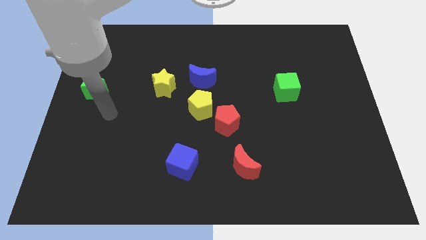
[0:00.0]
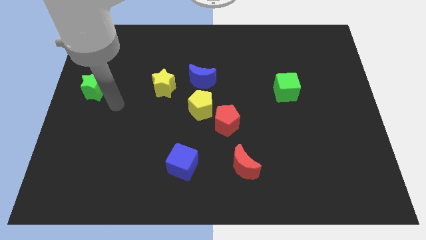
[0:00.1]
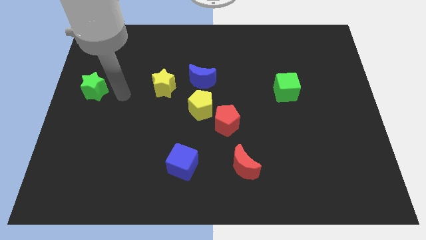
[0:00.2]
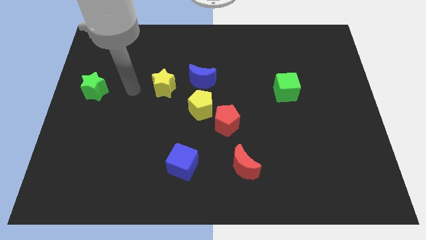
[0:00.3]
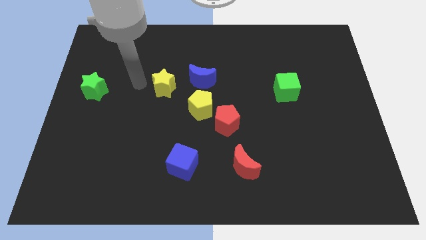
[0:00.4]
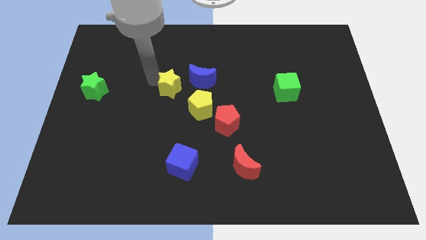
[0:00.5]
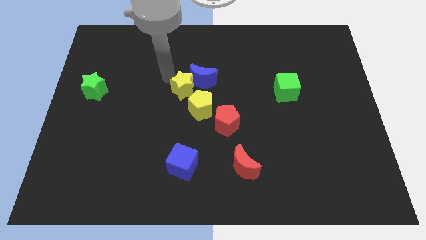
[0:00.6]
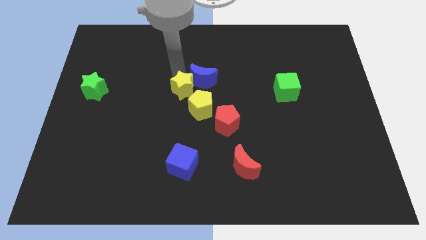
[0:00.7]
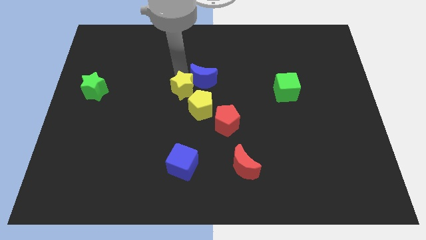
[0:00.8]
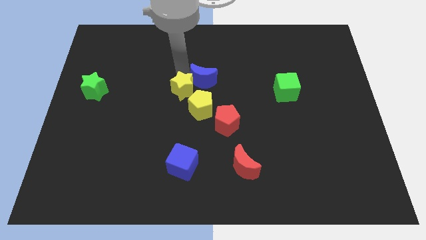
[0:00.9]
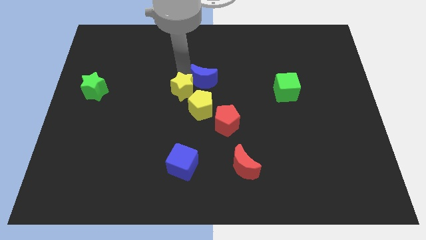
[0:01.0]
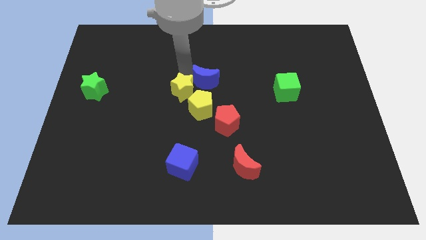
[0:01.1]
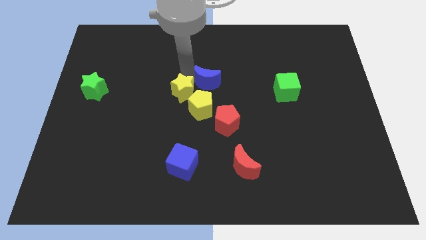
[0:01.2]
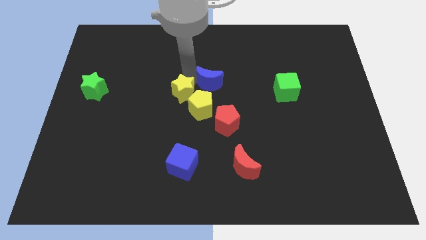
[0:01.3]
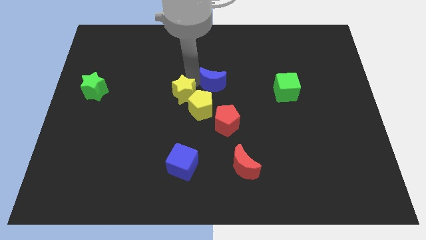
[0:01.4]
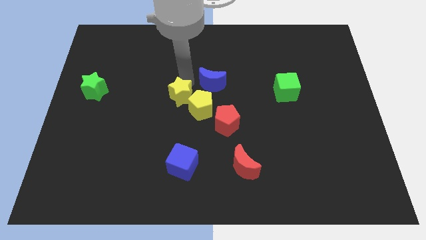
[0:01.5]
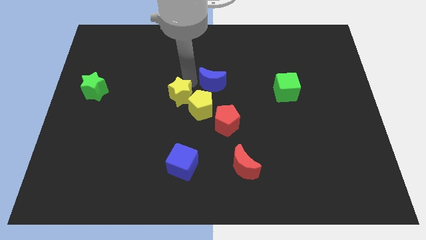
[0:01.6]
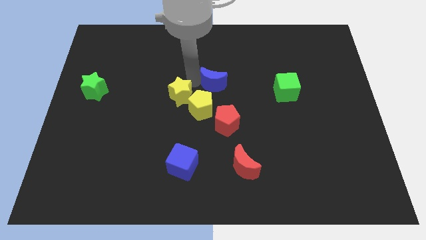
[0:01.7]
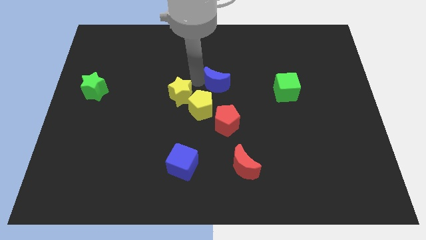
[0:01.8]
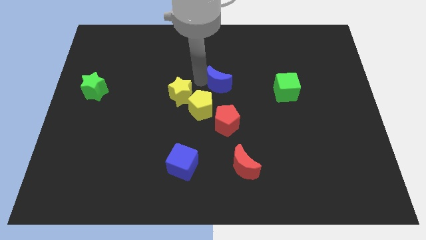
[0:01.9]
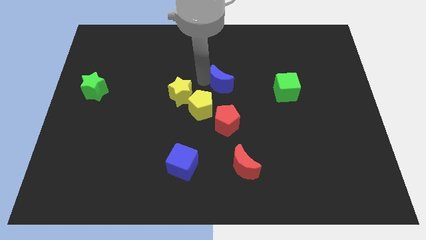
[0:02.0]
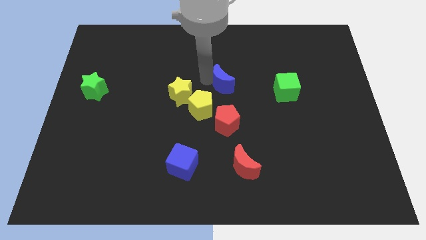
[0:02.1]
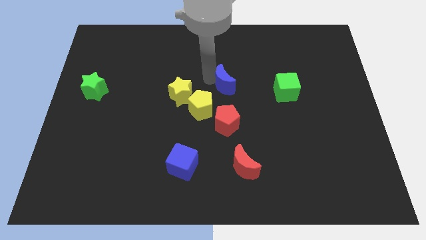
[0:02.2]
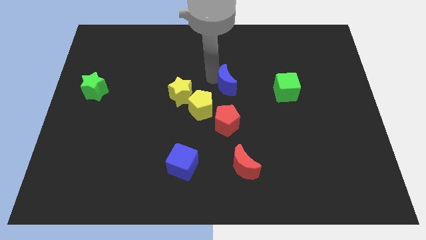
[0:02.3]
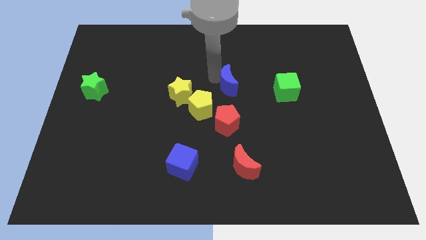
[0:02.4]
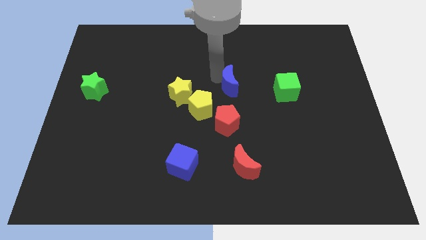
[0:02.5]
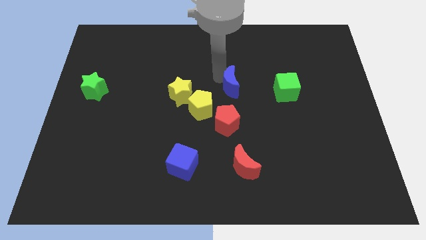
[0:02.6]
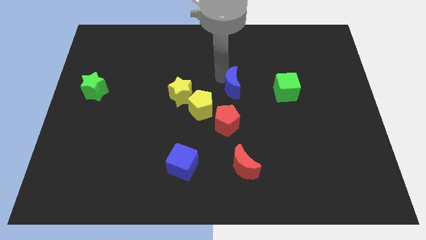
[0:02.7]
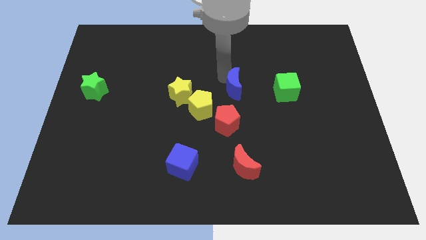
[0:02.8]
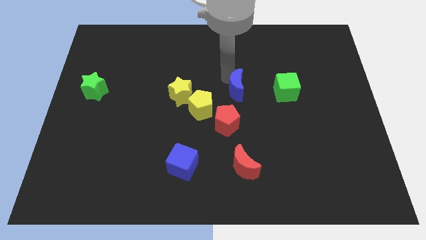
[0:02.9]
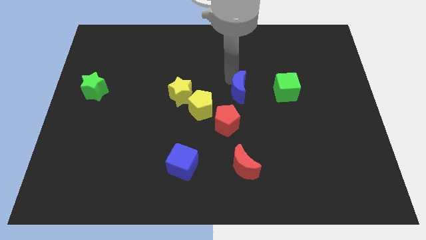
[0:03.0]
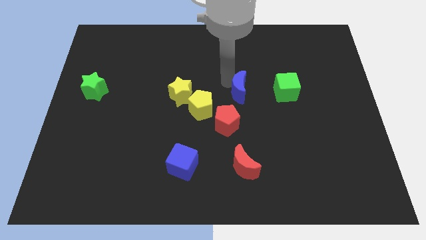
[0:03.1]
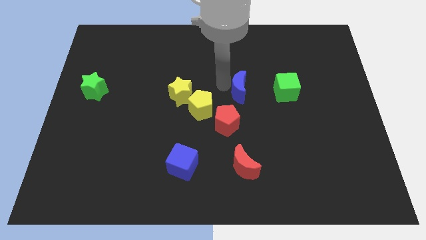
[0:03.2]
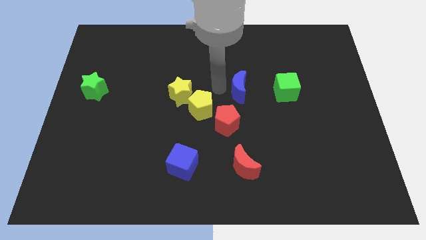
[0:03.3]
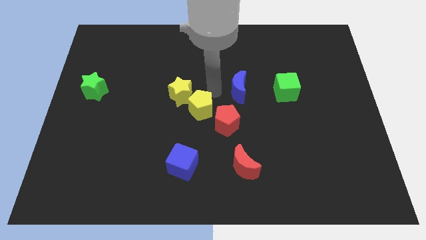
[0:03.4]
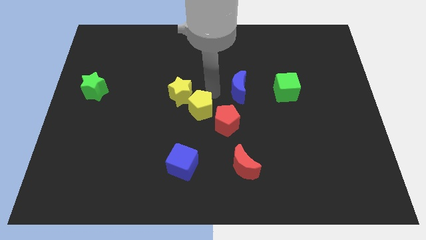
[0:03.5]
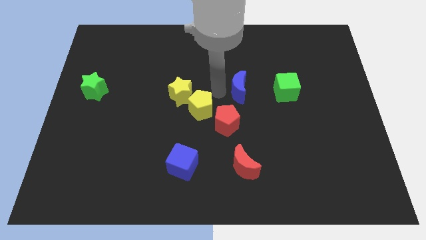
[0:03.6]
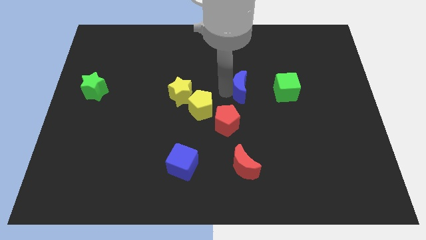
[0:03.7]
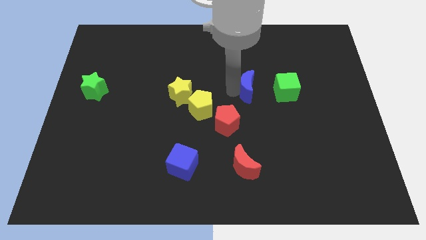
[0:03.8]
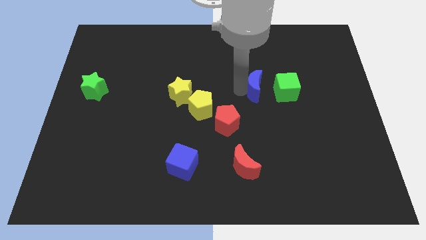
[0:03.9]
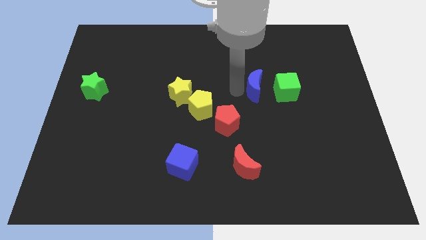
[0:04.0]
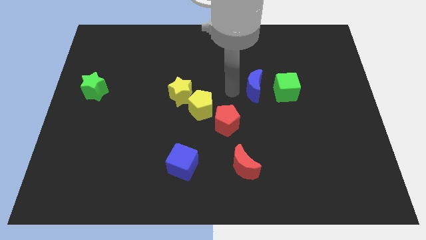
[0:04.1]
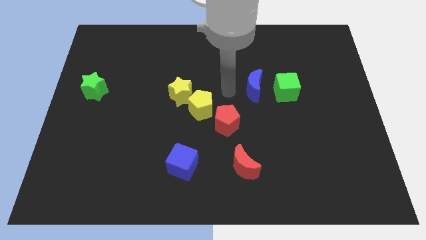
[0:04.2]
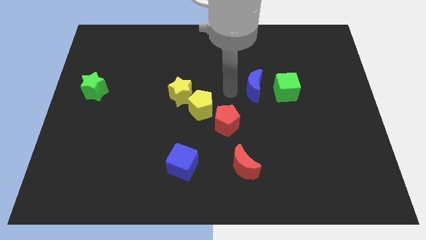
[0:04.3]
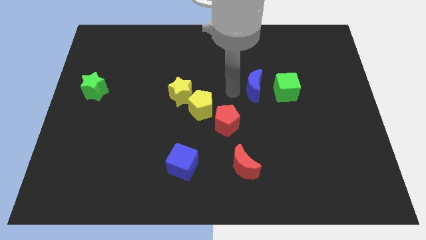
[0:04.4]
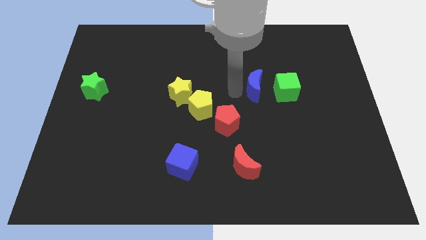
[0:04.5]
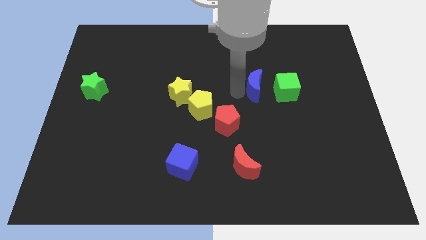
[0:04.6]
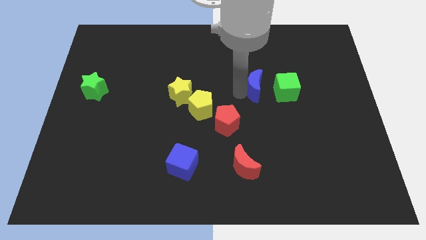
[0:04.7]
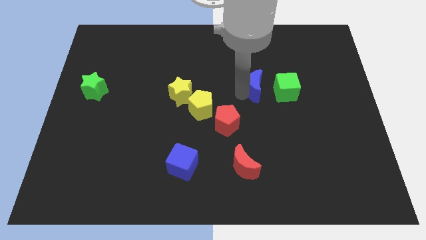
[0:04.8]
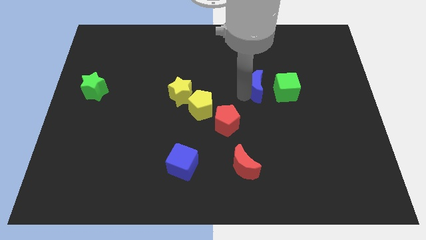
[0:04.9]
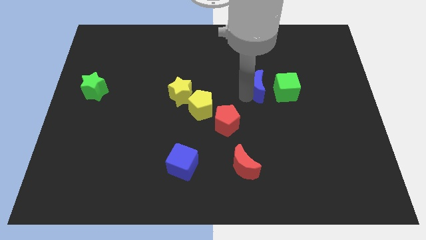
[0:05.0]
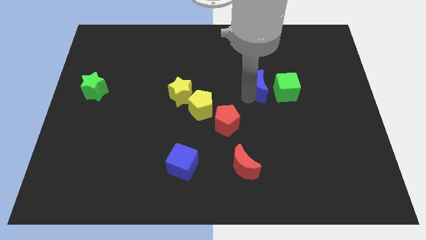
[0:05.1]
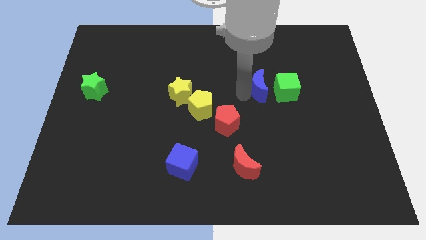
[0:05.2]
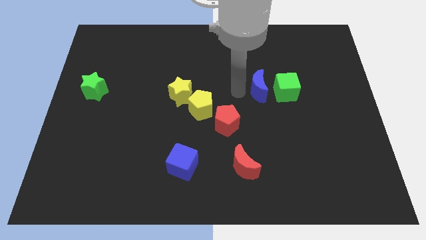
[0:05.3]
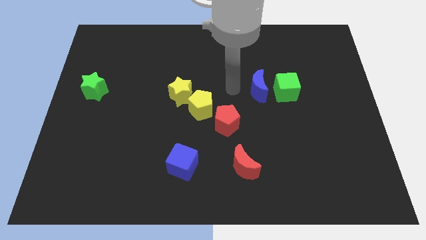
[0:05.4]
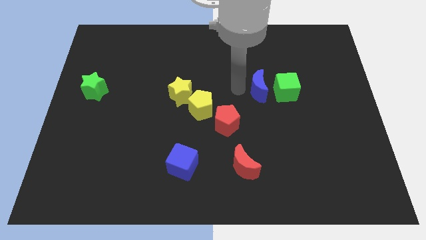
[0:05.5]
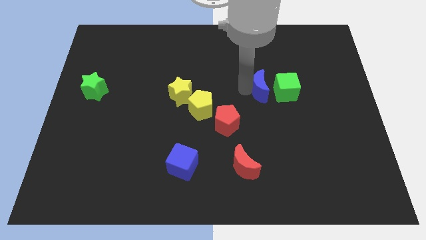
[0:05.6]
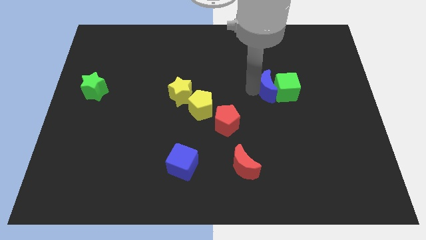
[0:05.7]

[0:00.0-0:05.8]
slide the blue moon towards the green cube

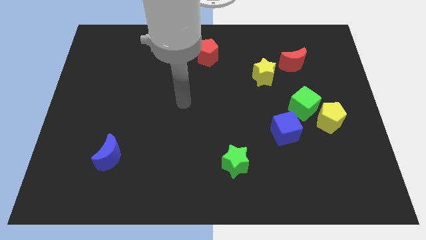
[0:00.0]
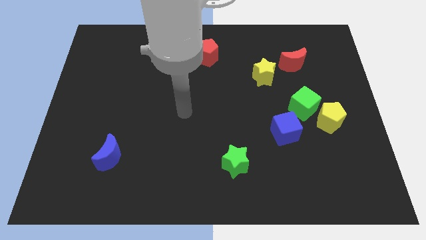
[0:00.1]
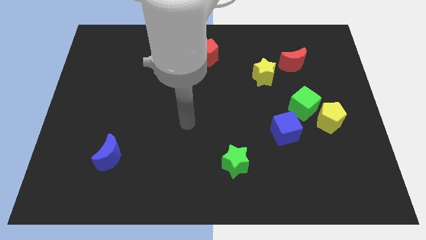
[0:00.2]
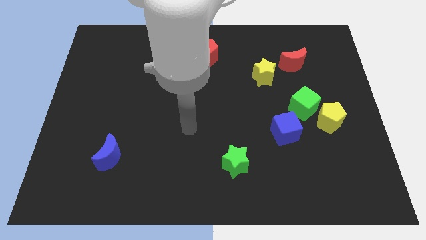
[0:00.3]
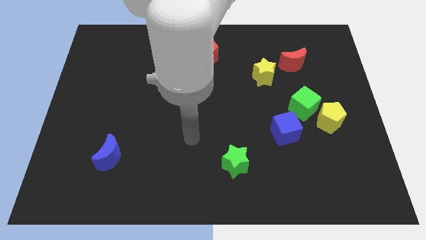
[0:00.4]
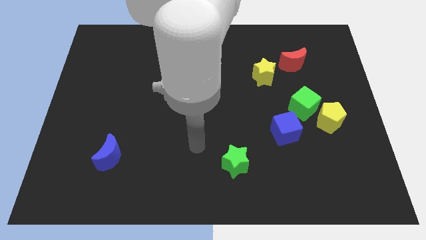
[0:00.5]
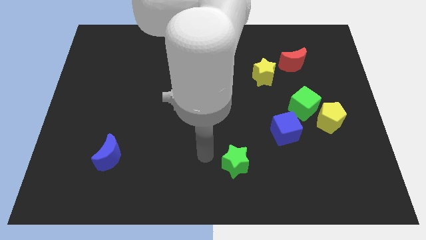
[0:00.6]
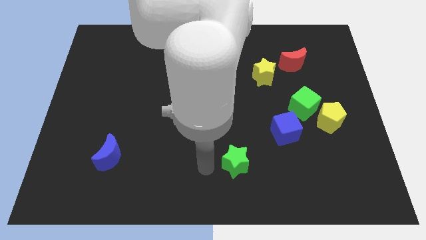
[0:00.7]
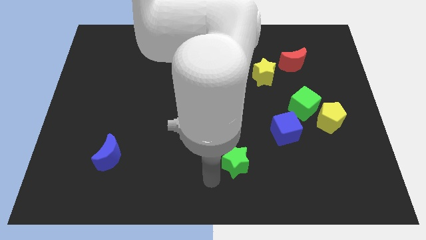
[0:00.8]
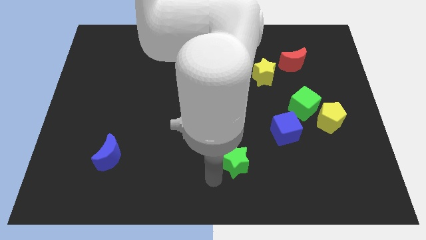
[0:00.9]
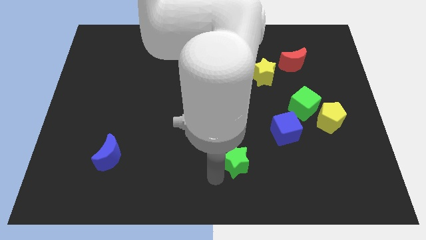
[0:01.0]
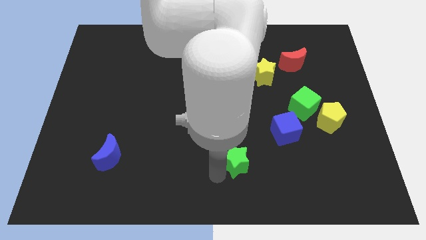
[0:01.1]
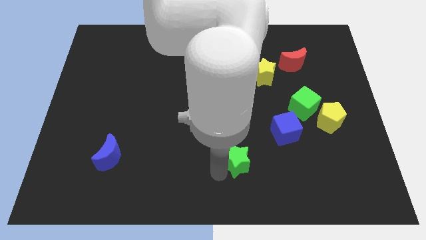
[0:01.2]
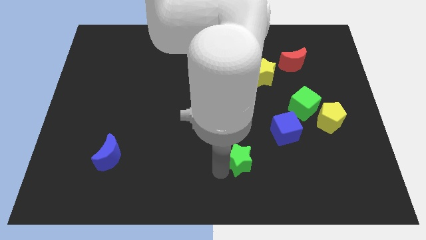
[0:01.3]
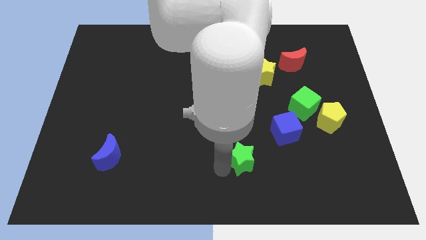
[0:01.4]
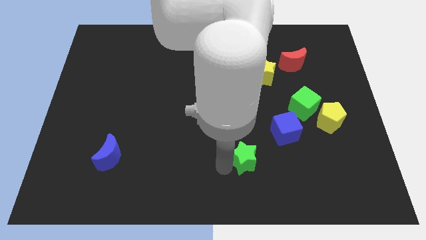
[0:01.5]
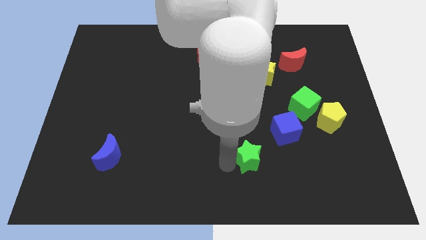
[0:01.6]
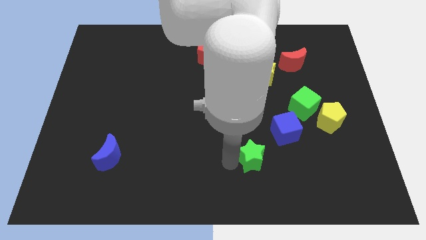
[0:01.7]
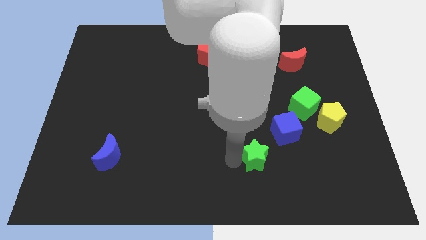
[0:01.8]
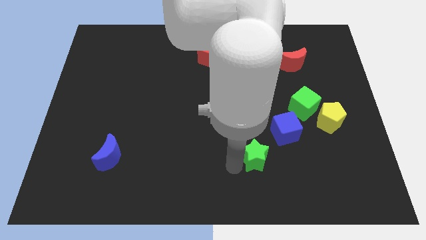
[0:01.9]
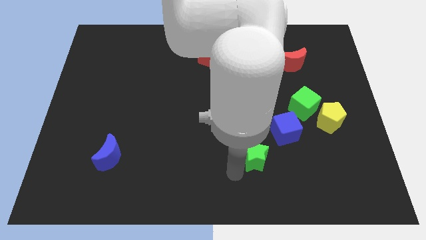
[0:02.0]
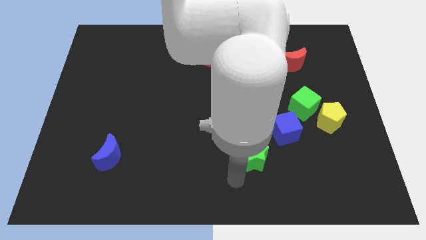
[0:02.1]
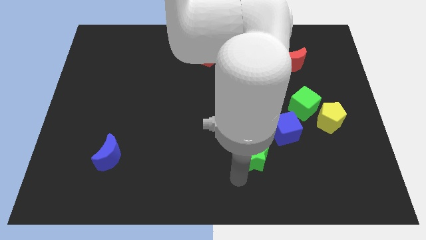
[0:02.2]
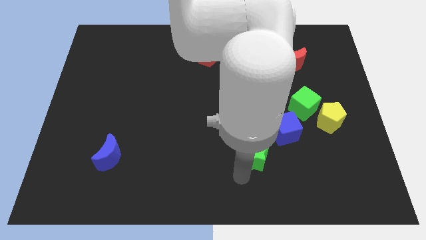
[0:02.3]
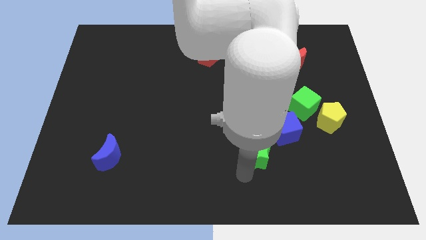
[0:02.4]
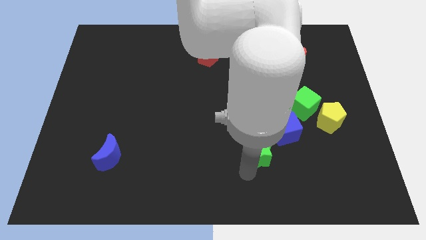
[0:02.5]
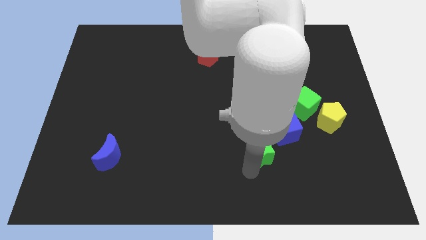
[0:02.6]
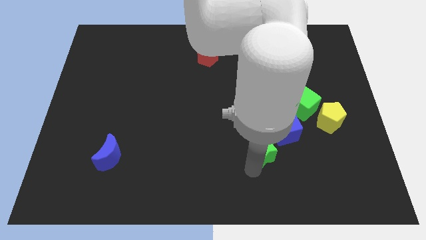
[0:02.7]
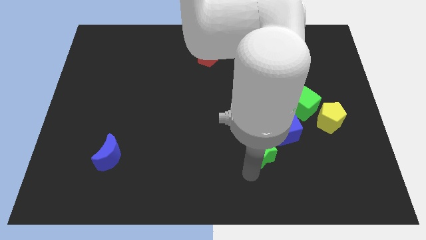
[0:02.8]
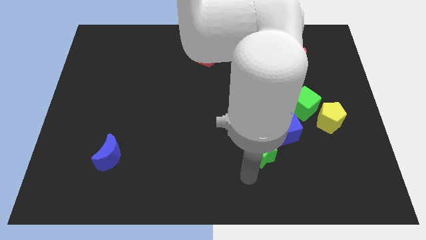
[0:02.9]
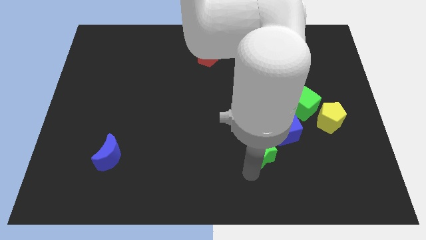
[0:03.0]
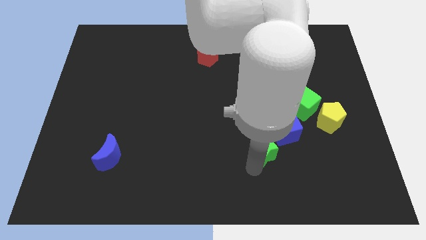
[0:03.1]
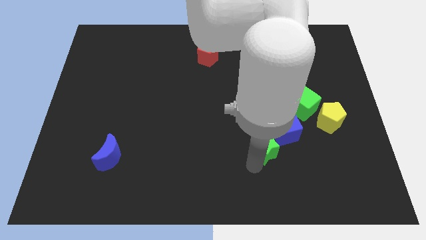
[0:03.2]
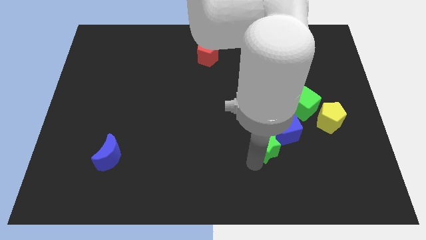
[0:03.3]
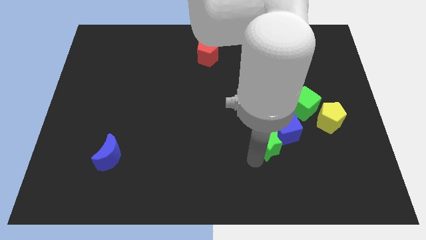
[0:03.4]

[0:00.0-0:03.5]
move the green star to the blue cube
